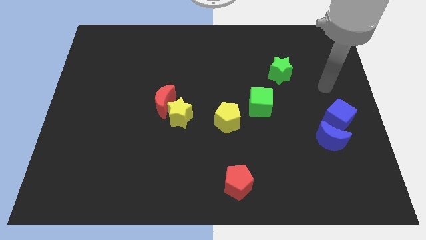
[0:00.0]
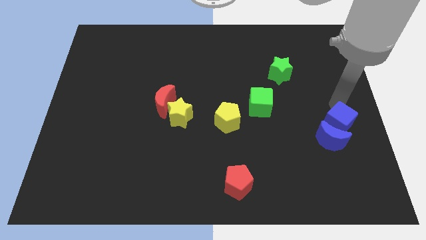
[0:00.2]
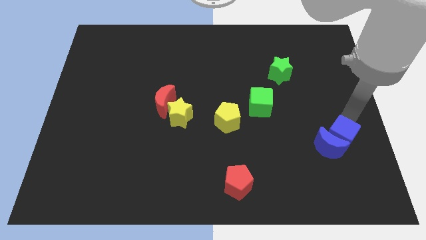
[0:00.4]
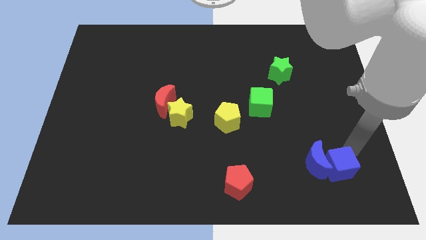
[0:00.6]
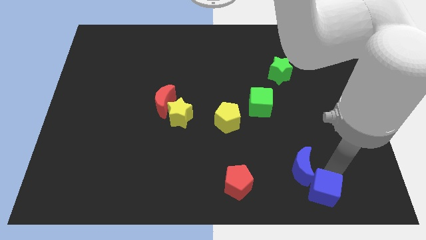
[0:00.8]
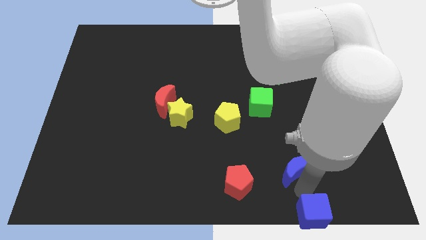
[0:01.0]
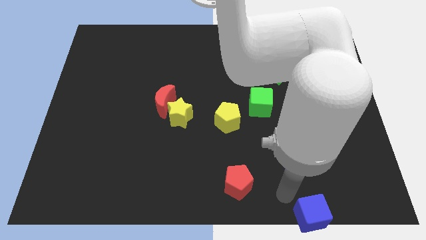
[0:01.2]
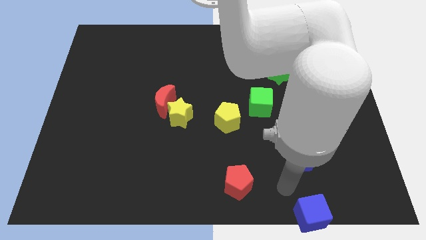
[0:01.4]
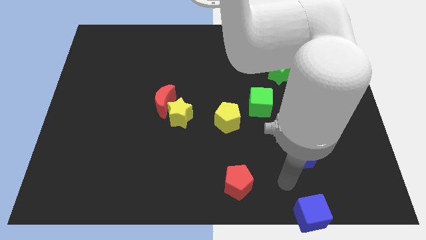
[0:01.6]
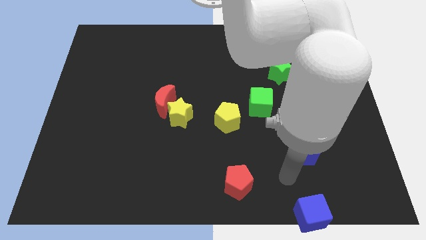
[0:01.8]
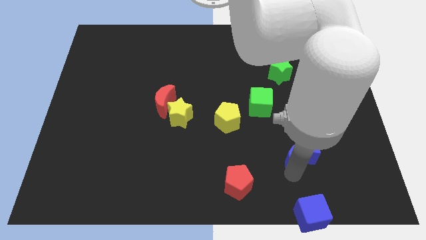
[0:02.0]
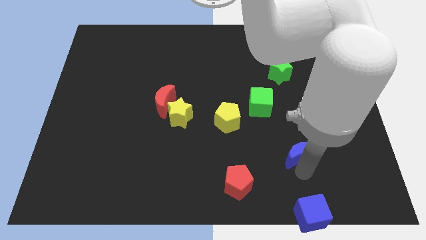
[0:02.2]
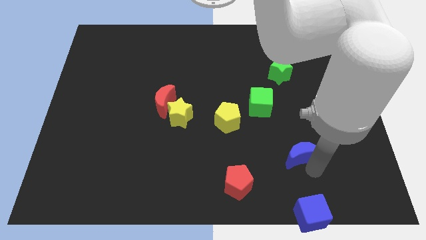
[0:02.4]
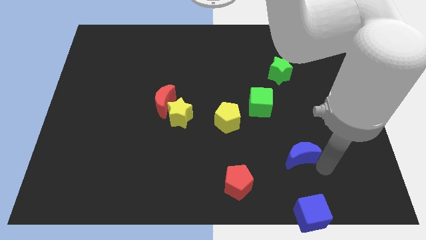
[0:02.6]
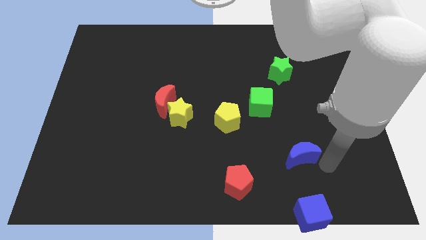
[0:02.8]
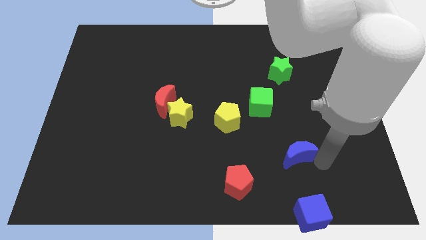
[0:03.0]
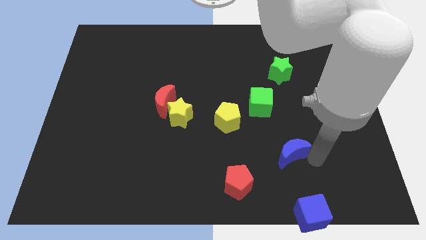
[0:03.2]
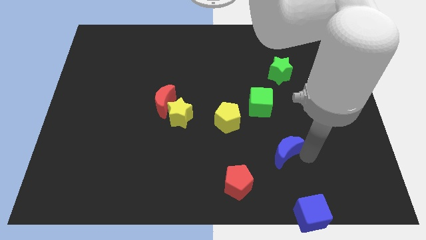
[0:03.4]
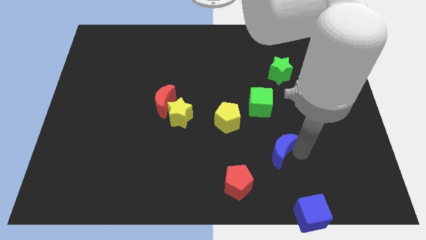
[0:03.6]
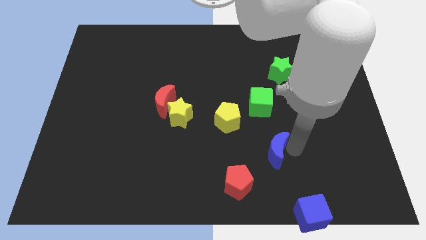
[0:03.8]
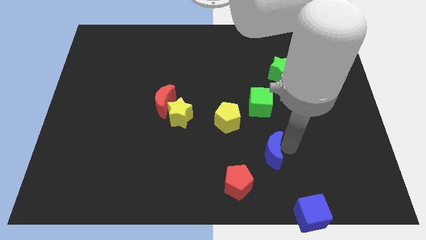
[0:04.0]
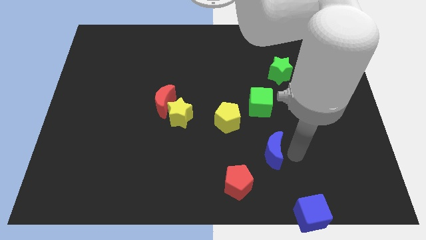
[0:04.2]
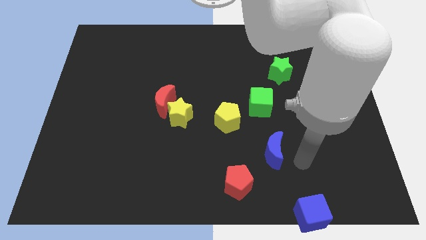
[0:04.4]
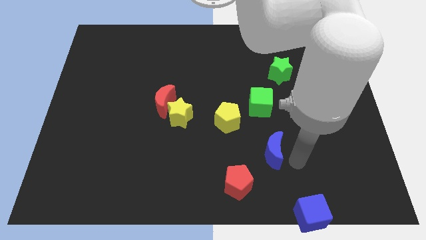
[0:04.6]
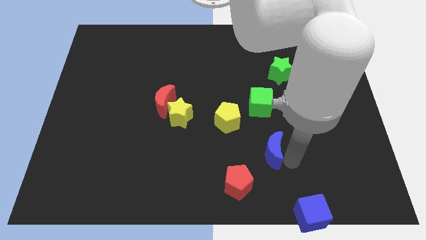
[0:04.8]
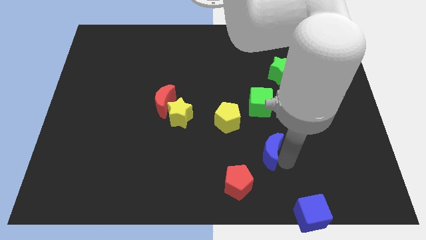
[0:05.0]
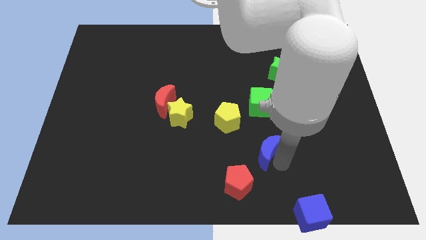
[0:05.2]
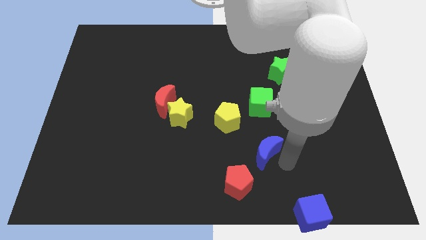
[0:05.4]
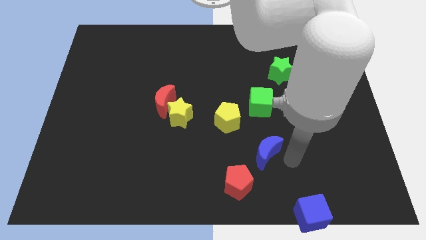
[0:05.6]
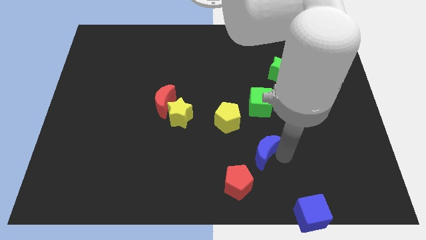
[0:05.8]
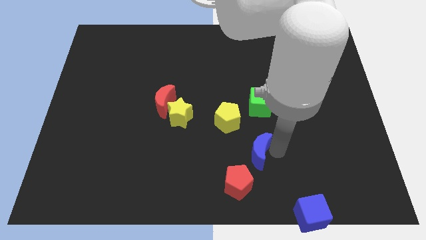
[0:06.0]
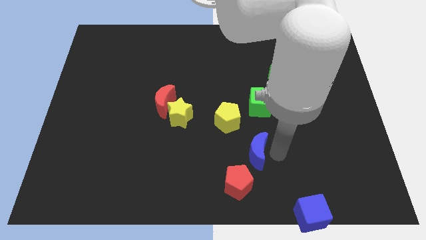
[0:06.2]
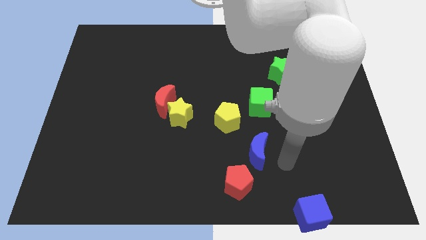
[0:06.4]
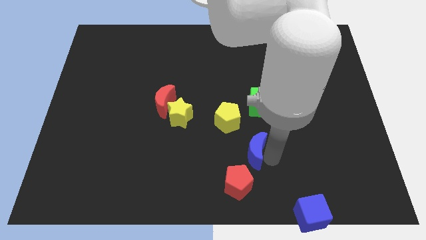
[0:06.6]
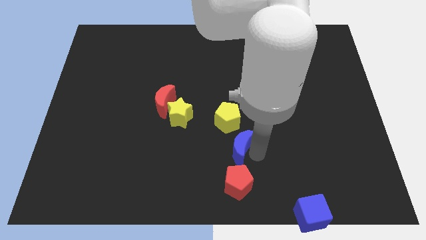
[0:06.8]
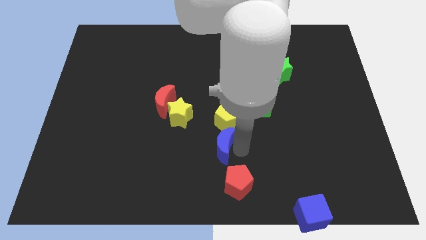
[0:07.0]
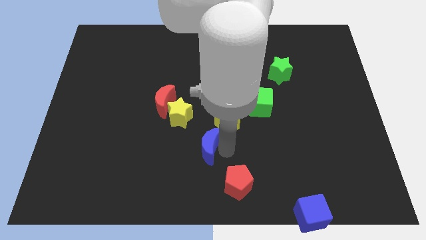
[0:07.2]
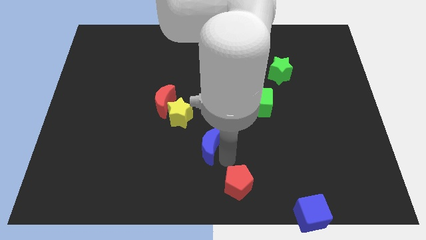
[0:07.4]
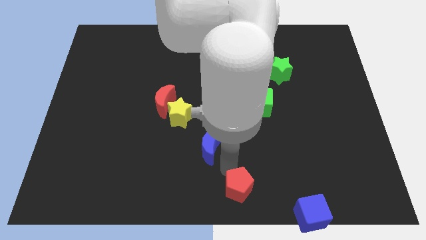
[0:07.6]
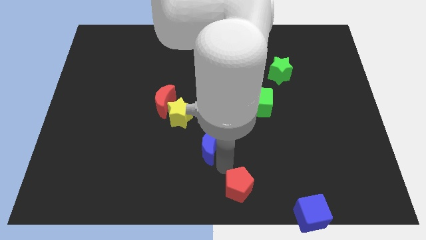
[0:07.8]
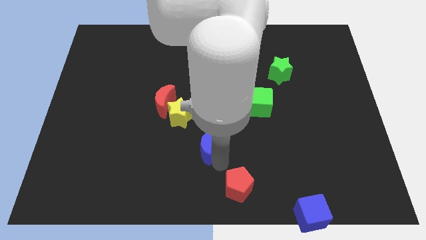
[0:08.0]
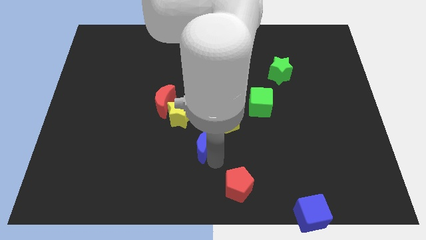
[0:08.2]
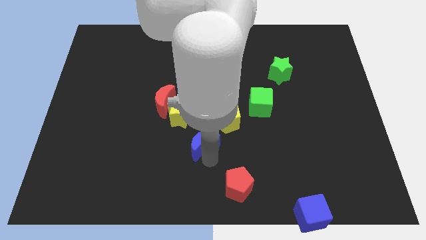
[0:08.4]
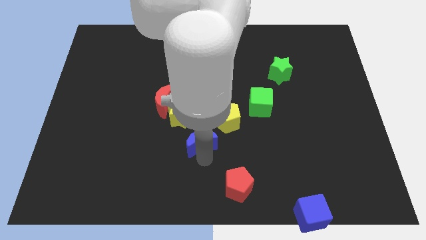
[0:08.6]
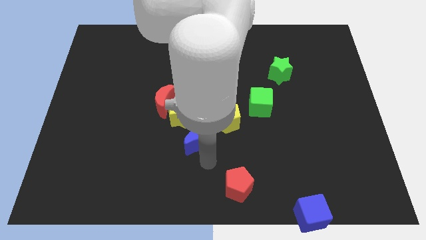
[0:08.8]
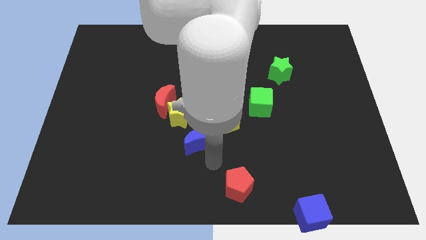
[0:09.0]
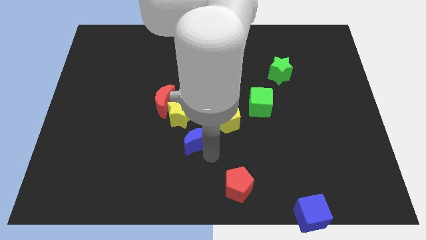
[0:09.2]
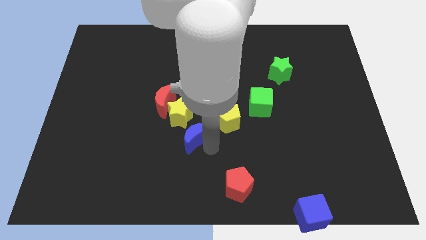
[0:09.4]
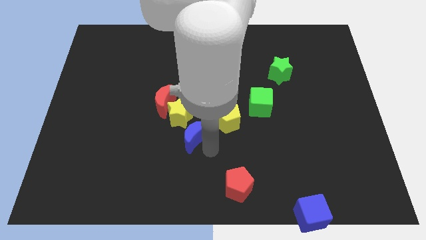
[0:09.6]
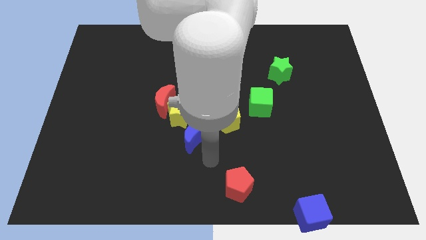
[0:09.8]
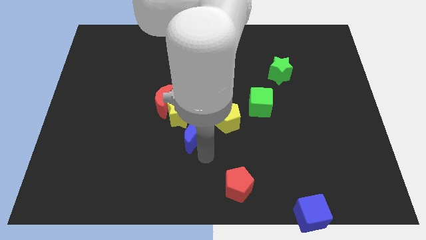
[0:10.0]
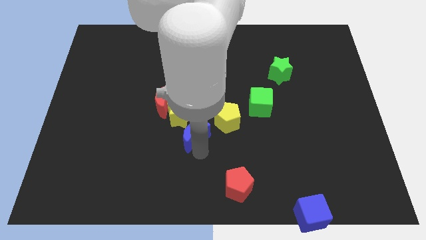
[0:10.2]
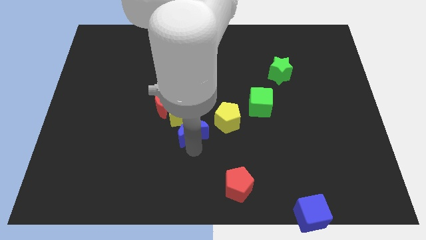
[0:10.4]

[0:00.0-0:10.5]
move the blue moon to the yellow star

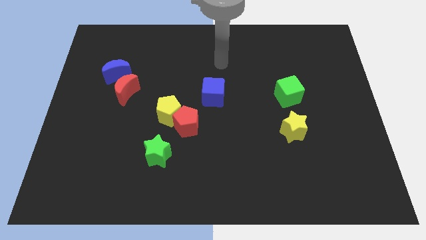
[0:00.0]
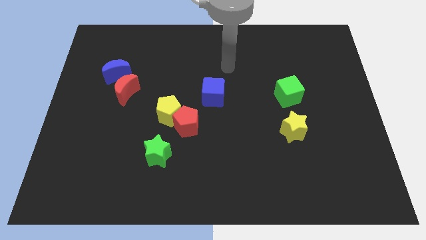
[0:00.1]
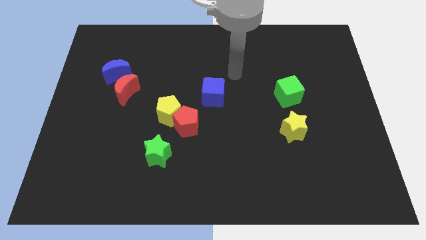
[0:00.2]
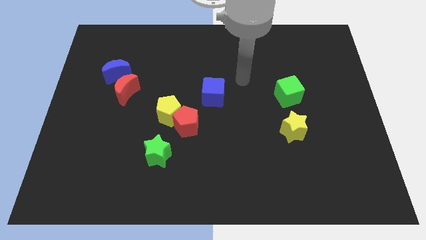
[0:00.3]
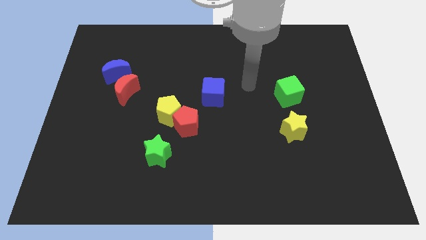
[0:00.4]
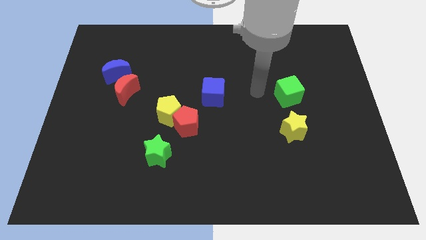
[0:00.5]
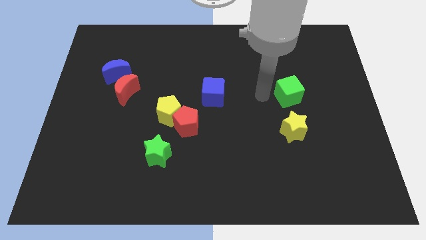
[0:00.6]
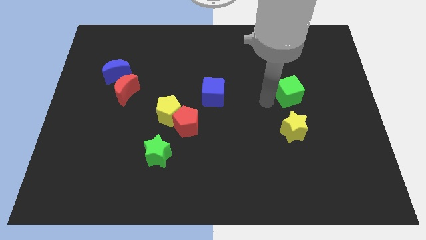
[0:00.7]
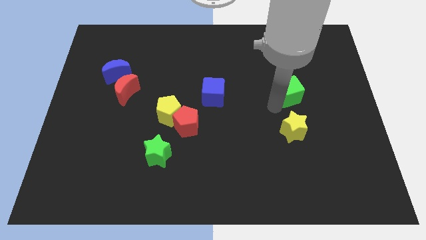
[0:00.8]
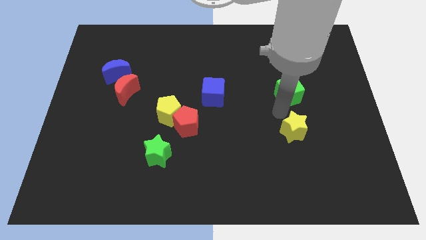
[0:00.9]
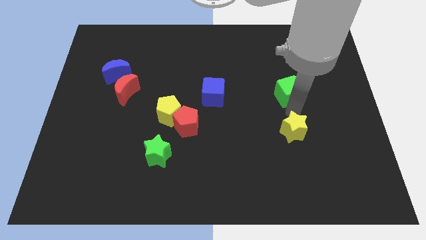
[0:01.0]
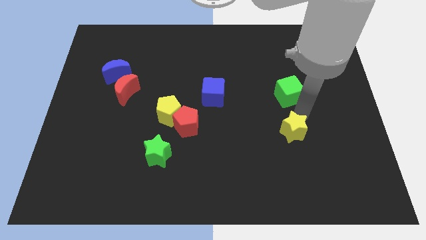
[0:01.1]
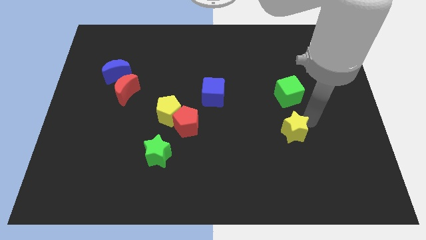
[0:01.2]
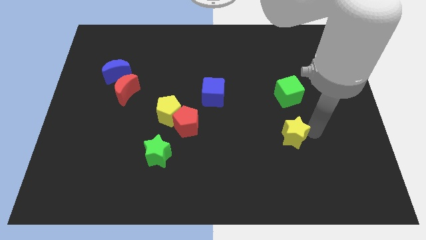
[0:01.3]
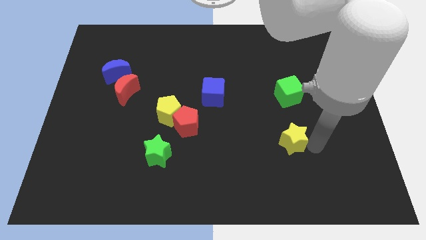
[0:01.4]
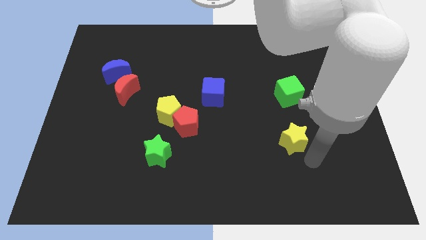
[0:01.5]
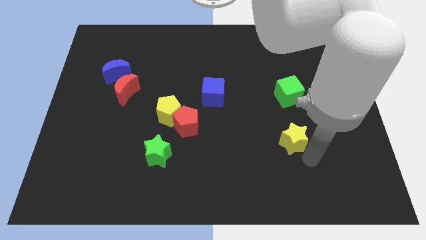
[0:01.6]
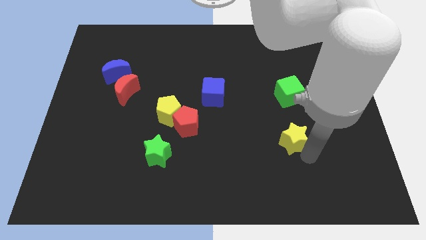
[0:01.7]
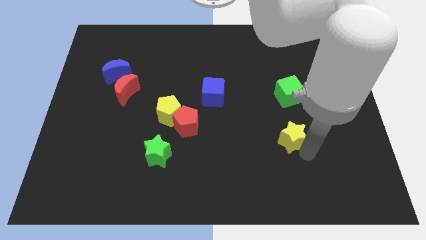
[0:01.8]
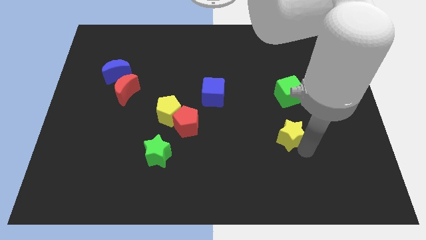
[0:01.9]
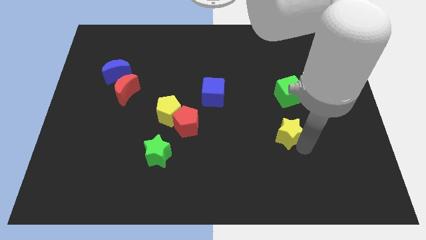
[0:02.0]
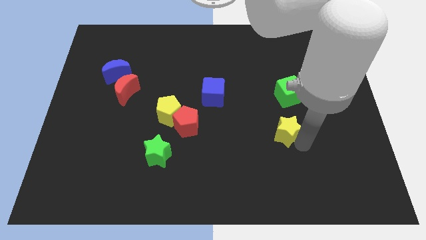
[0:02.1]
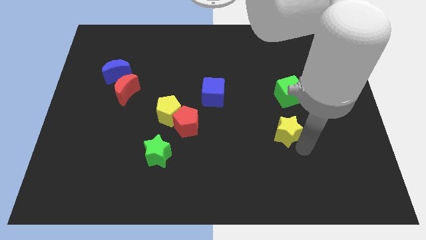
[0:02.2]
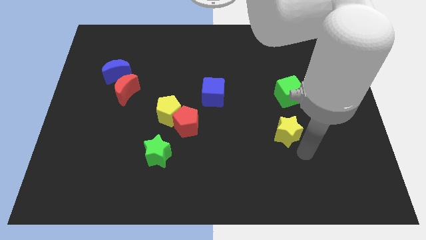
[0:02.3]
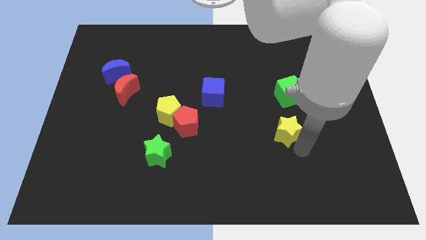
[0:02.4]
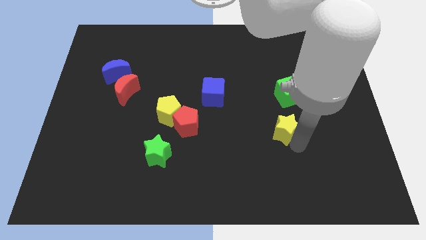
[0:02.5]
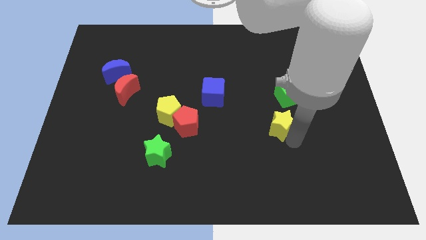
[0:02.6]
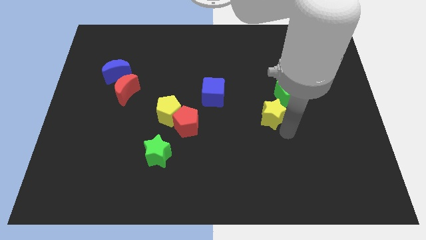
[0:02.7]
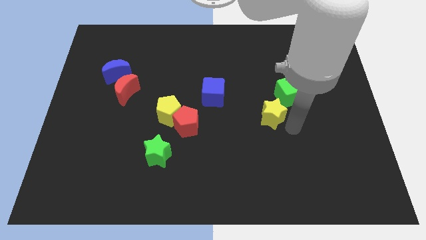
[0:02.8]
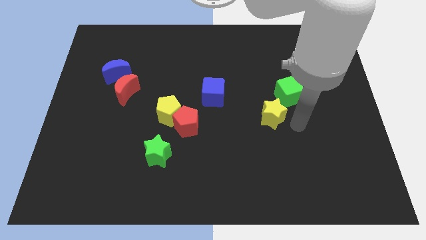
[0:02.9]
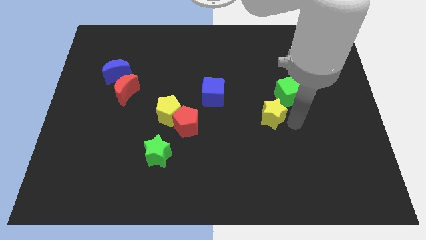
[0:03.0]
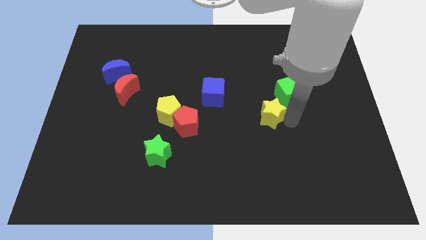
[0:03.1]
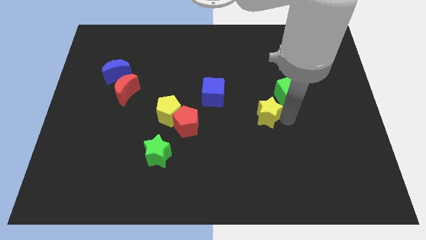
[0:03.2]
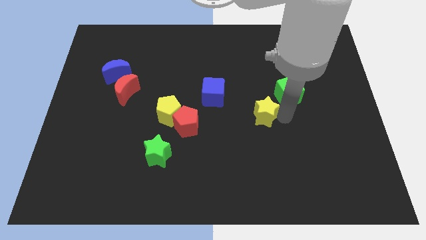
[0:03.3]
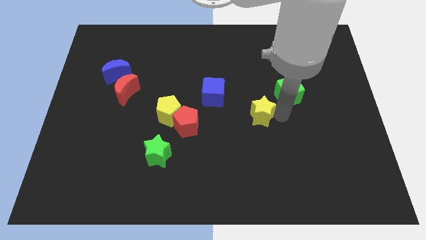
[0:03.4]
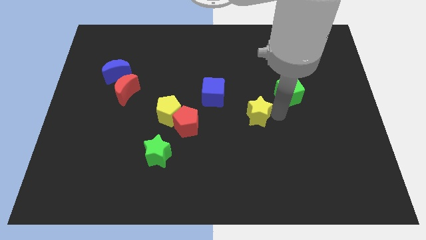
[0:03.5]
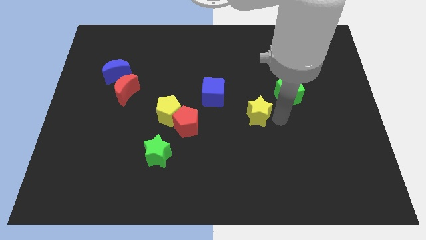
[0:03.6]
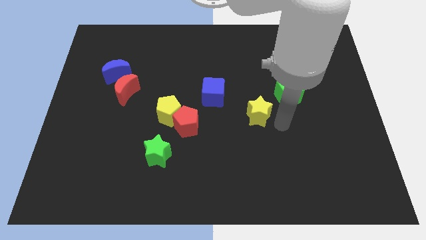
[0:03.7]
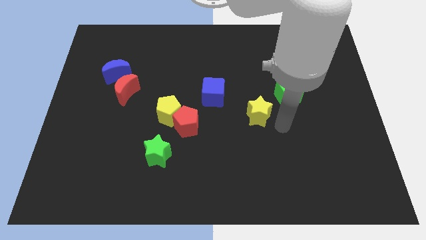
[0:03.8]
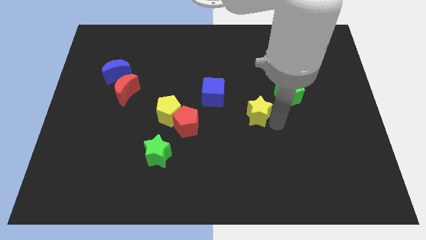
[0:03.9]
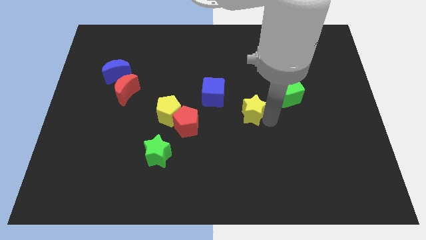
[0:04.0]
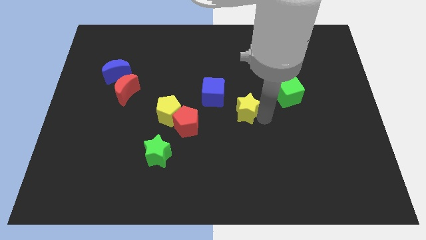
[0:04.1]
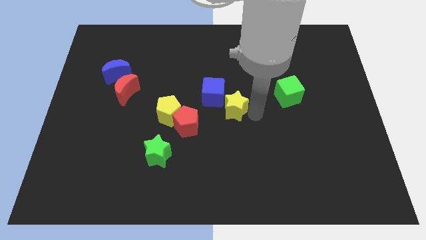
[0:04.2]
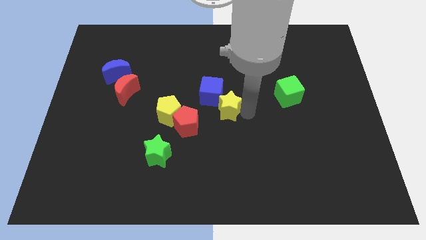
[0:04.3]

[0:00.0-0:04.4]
slide the yellow star close to the blue cube
